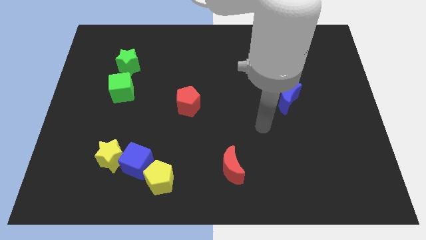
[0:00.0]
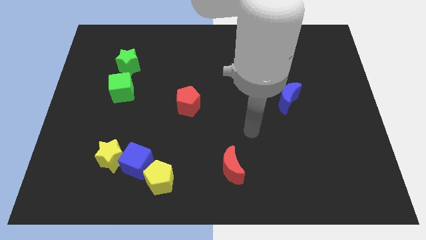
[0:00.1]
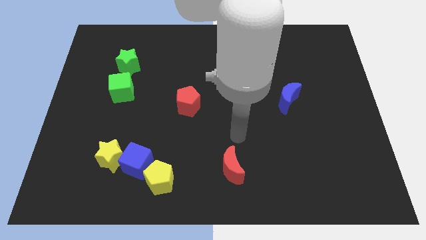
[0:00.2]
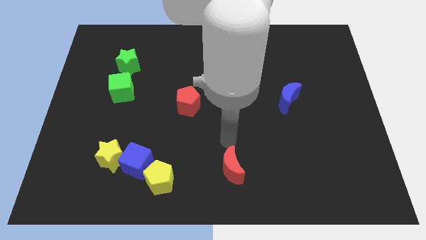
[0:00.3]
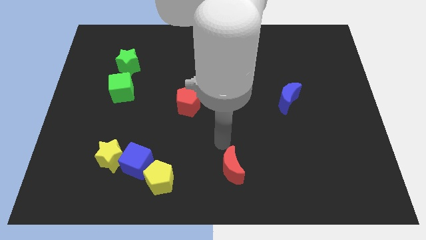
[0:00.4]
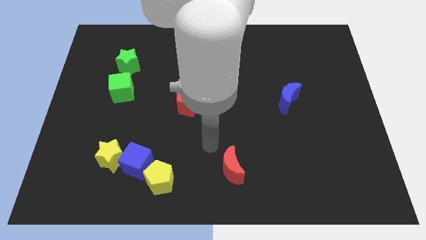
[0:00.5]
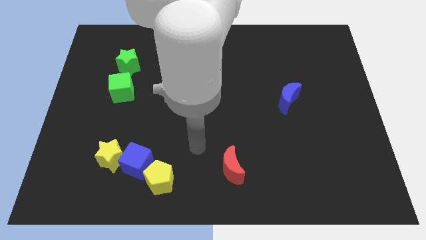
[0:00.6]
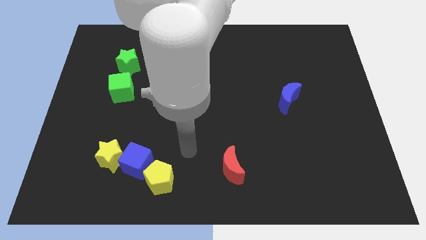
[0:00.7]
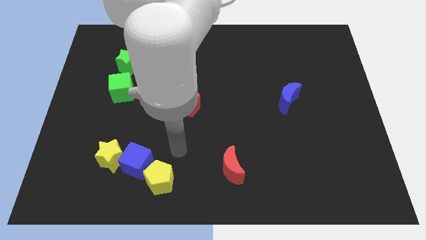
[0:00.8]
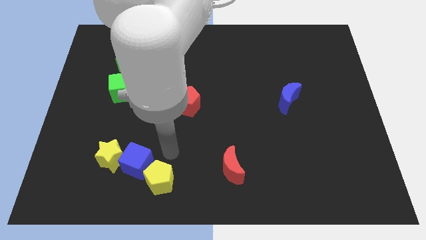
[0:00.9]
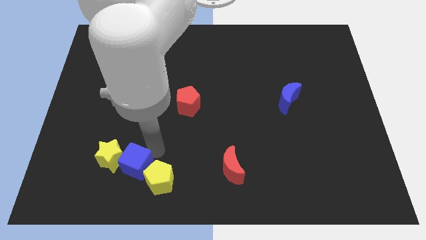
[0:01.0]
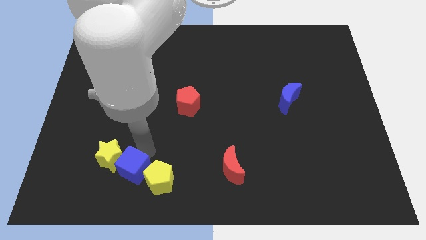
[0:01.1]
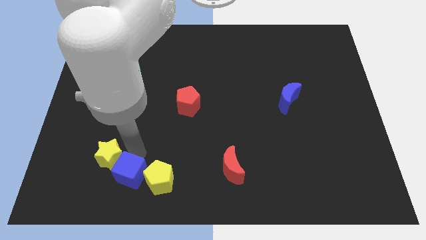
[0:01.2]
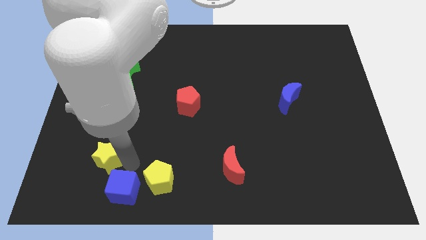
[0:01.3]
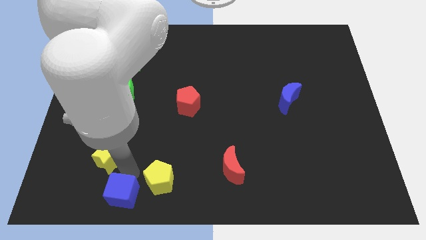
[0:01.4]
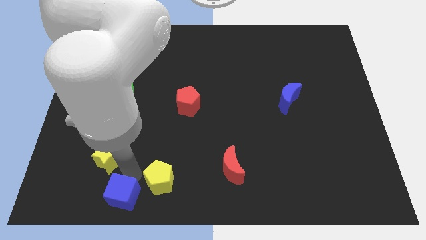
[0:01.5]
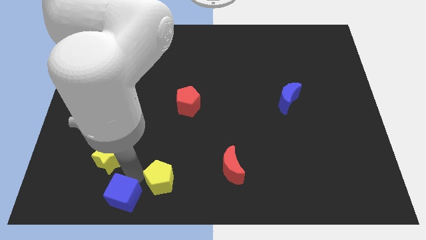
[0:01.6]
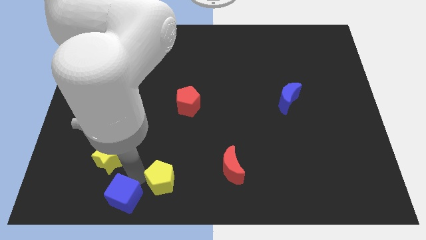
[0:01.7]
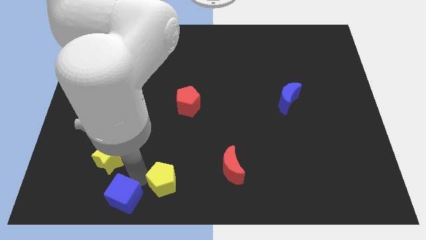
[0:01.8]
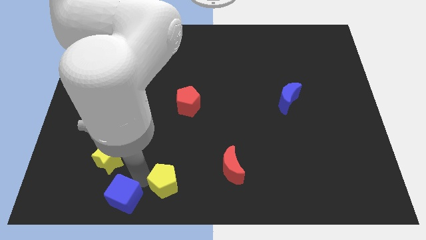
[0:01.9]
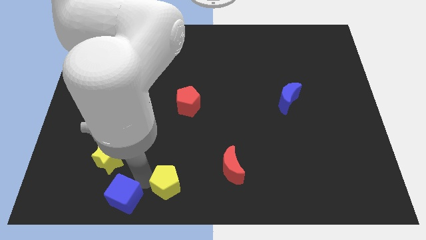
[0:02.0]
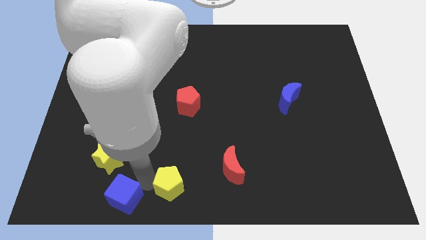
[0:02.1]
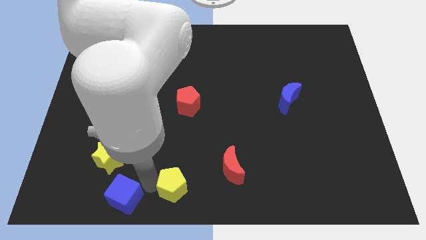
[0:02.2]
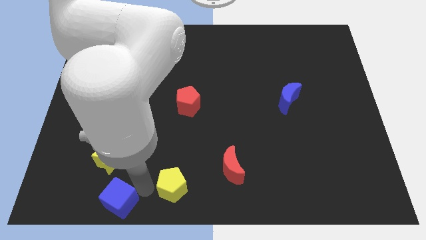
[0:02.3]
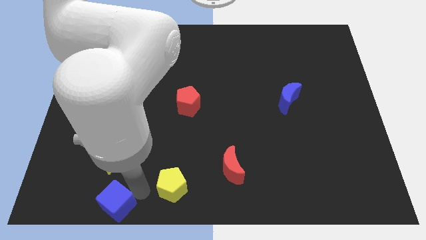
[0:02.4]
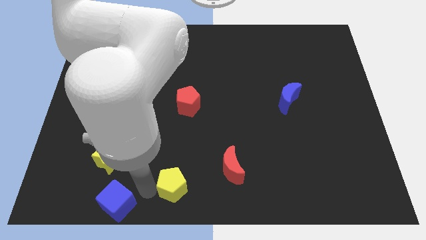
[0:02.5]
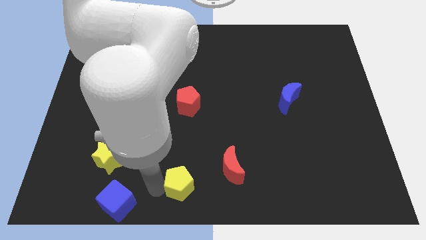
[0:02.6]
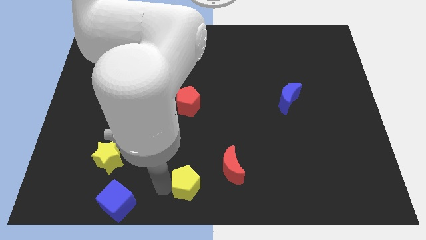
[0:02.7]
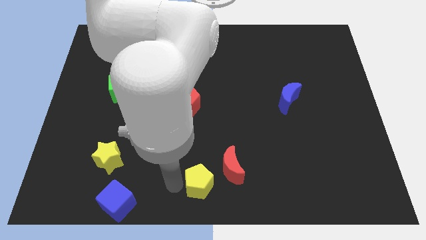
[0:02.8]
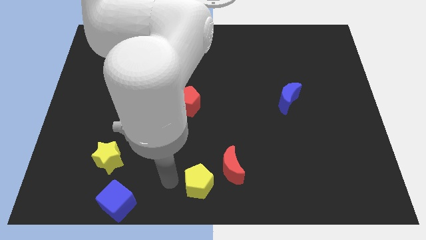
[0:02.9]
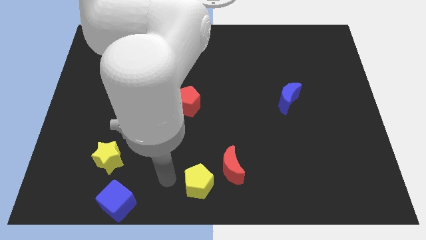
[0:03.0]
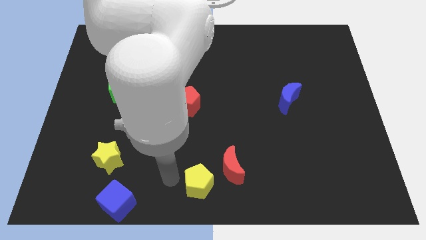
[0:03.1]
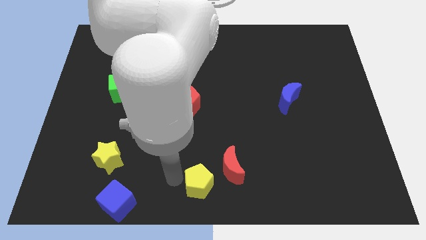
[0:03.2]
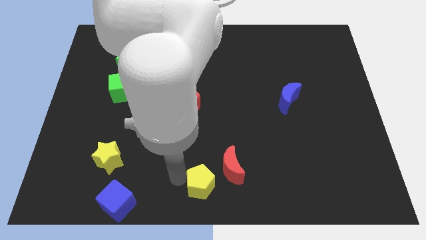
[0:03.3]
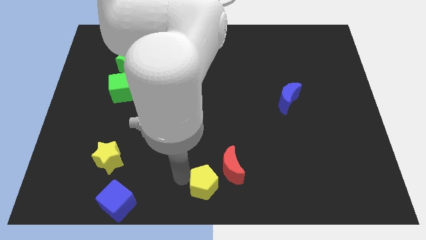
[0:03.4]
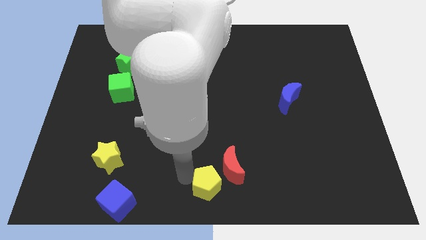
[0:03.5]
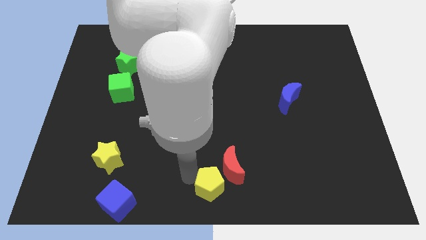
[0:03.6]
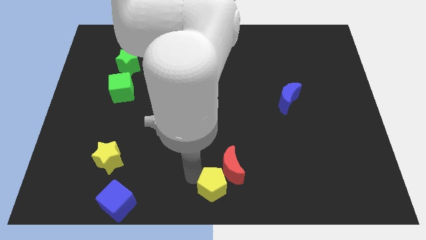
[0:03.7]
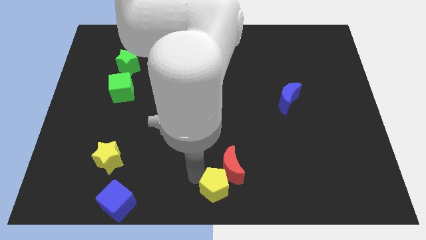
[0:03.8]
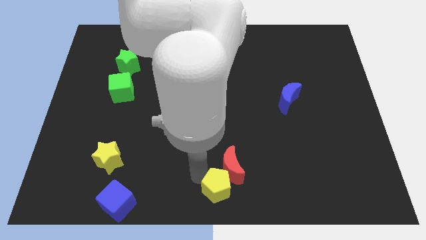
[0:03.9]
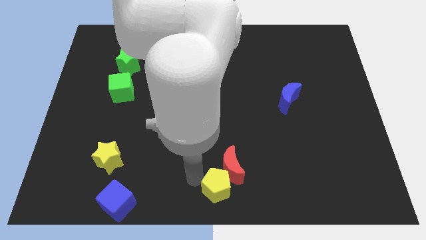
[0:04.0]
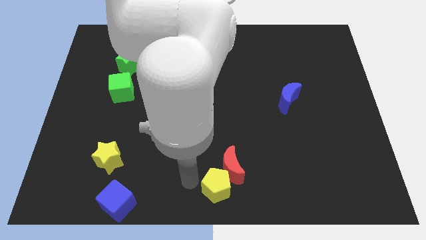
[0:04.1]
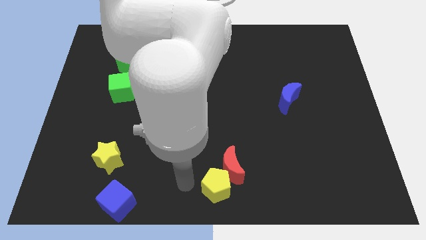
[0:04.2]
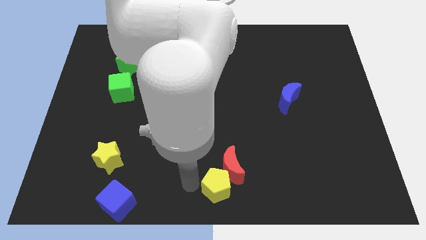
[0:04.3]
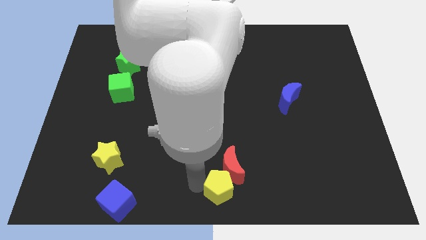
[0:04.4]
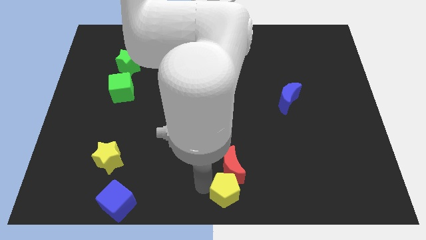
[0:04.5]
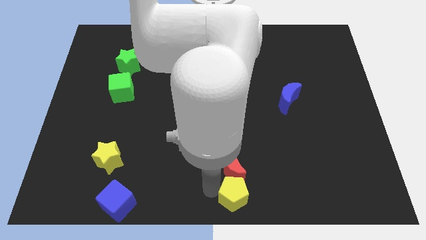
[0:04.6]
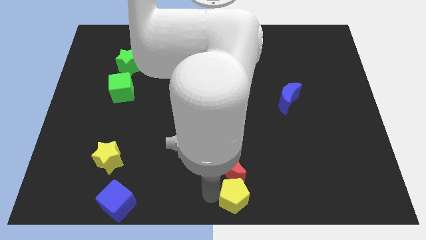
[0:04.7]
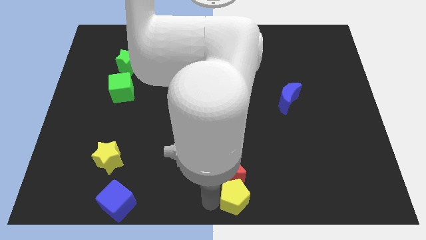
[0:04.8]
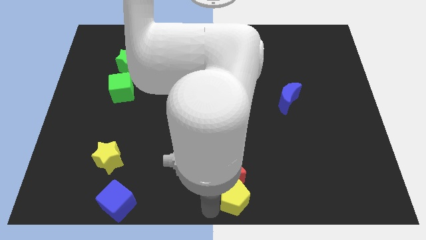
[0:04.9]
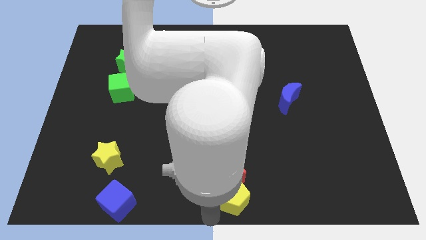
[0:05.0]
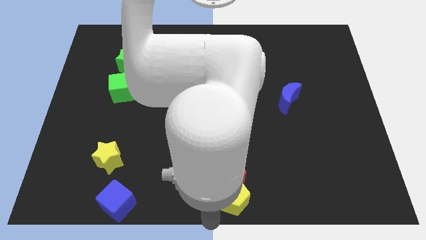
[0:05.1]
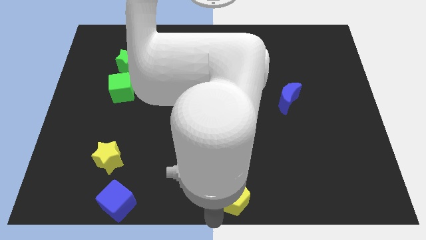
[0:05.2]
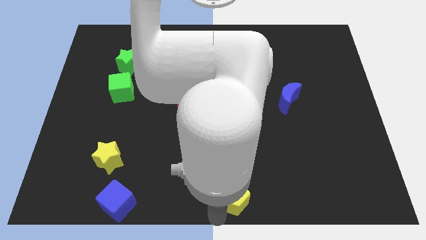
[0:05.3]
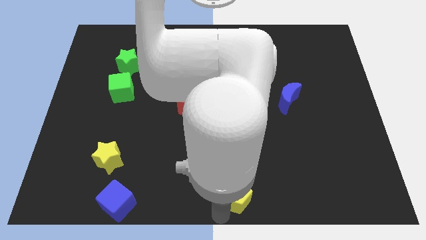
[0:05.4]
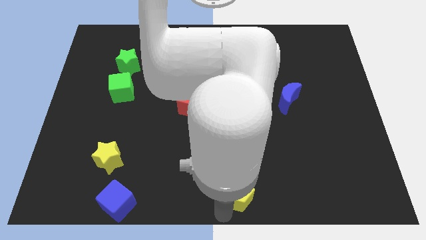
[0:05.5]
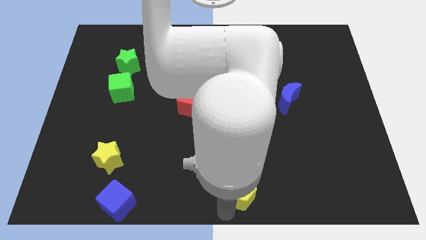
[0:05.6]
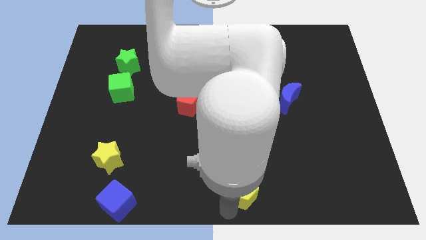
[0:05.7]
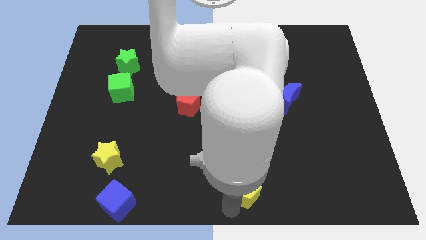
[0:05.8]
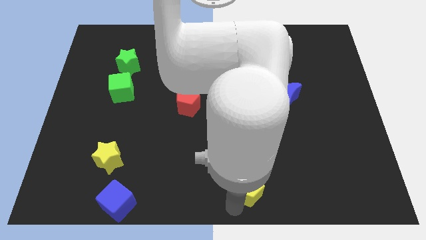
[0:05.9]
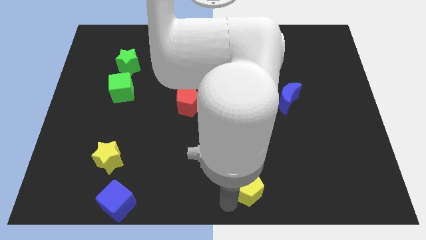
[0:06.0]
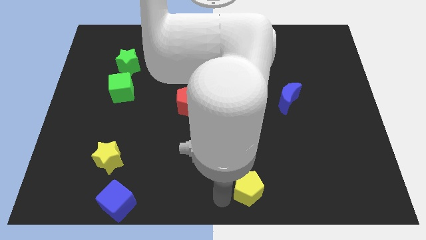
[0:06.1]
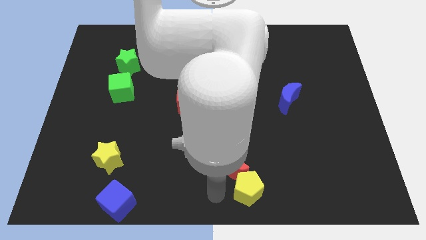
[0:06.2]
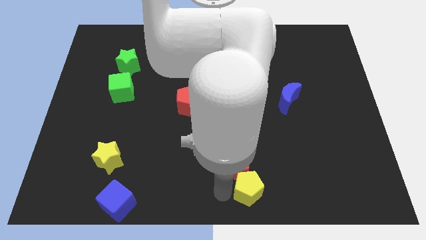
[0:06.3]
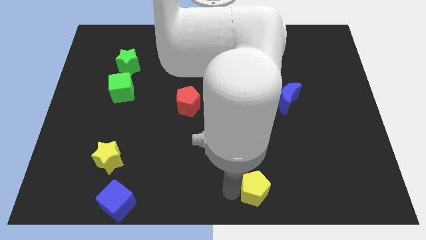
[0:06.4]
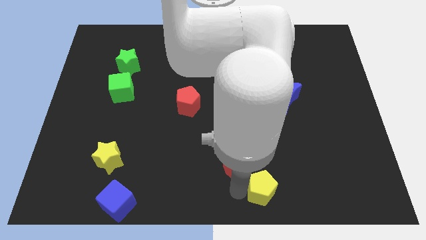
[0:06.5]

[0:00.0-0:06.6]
push the yellow pentagon right

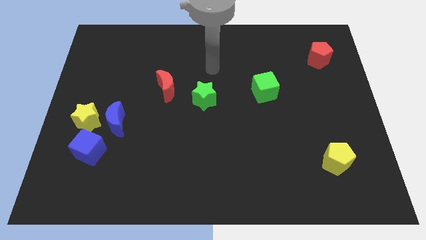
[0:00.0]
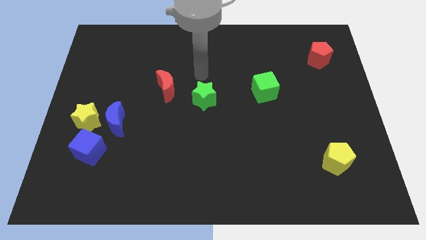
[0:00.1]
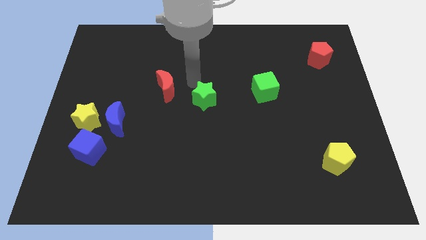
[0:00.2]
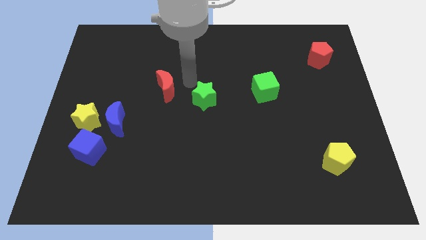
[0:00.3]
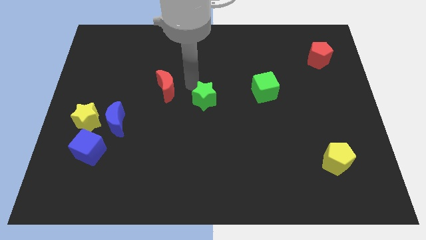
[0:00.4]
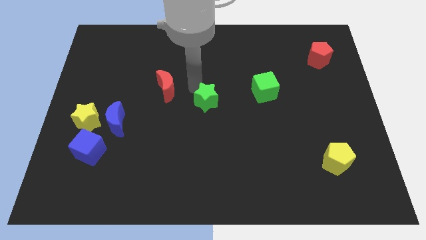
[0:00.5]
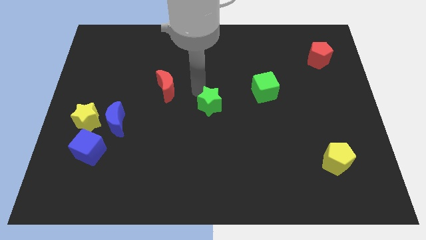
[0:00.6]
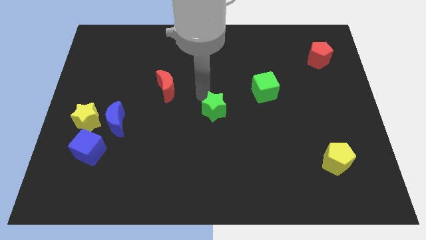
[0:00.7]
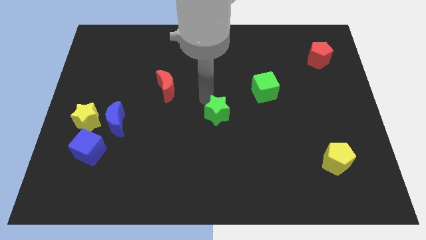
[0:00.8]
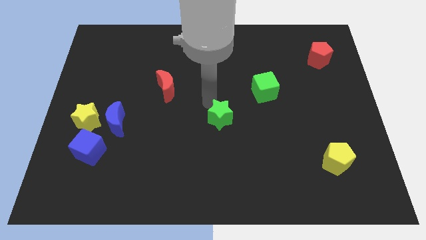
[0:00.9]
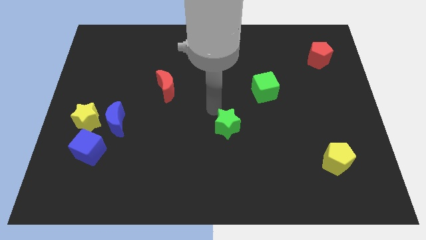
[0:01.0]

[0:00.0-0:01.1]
slightly move the green star down and then to the right

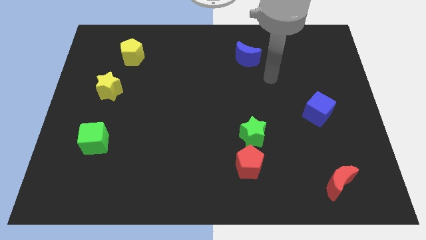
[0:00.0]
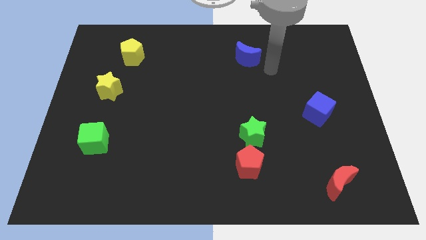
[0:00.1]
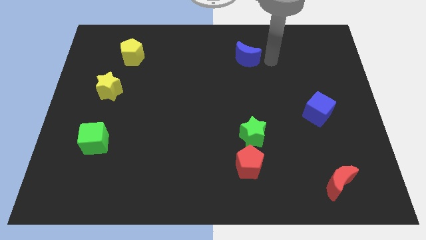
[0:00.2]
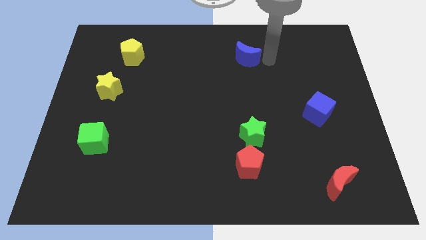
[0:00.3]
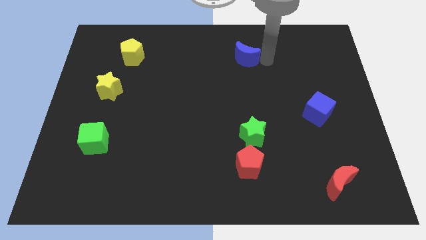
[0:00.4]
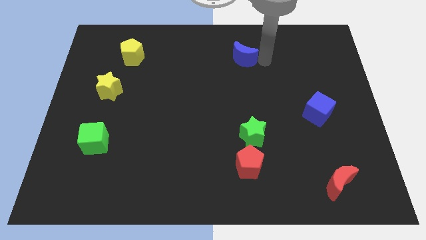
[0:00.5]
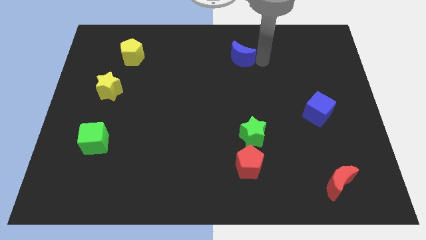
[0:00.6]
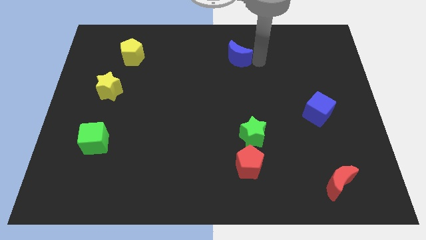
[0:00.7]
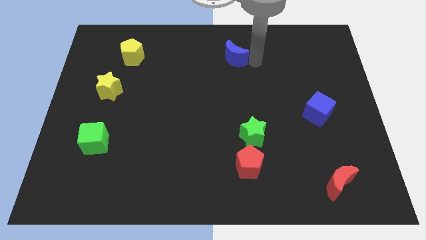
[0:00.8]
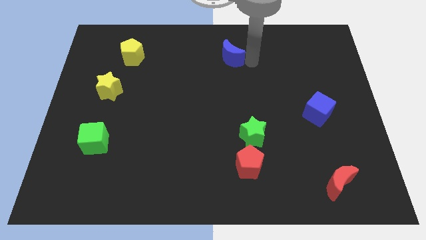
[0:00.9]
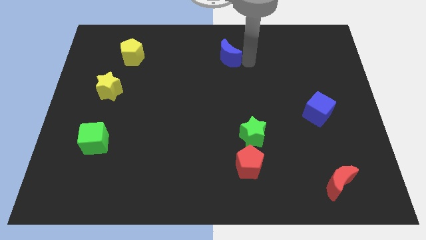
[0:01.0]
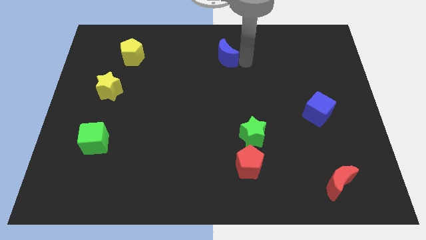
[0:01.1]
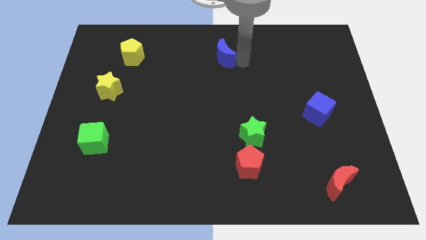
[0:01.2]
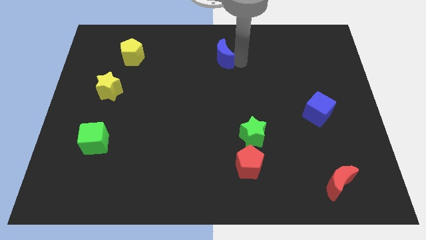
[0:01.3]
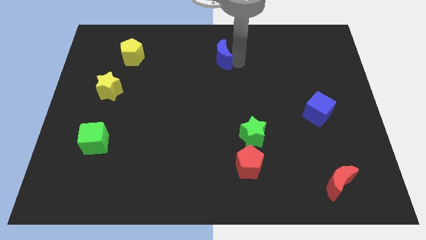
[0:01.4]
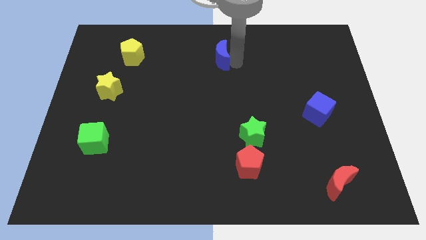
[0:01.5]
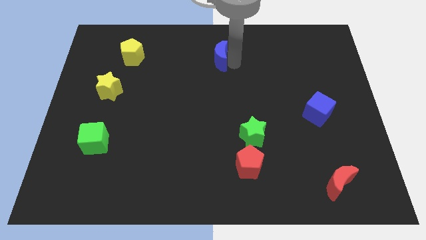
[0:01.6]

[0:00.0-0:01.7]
slide the blue moon left a bit
